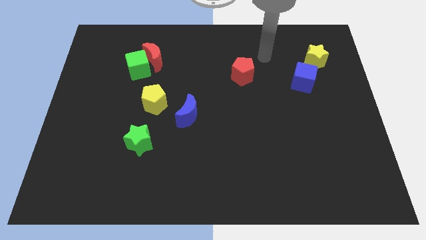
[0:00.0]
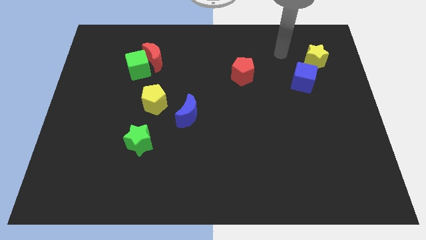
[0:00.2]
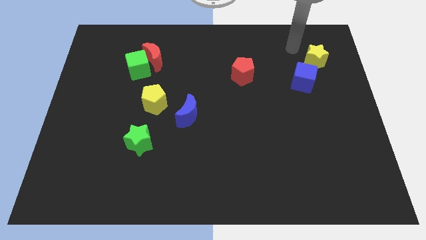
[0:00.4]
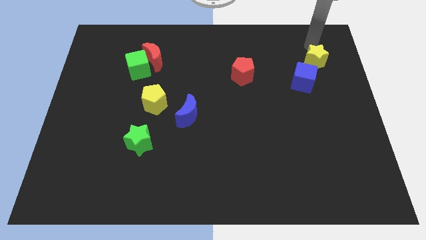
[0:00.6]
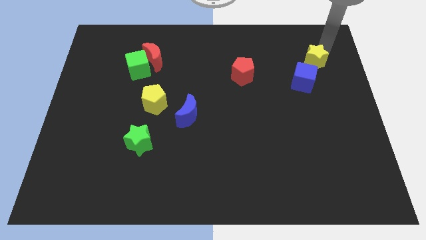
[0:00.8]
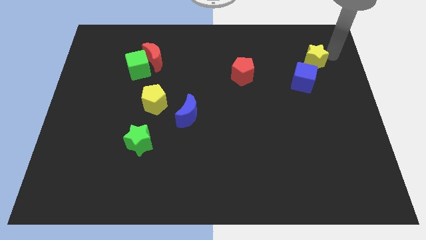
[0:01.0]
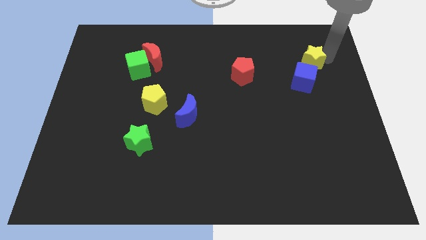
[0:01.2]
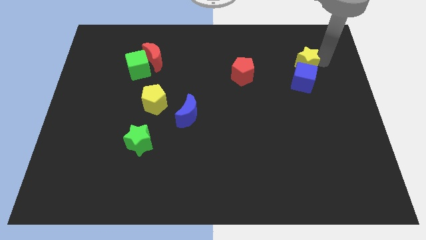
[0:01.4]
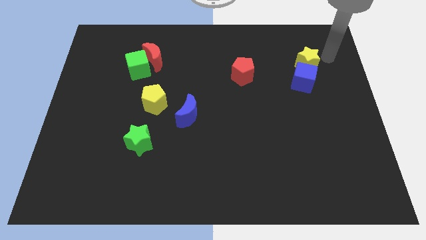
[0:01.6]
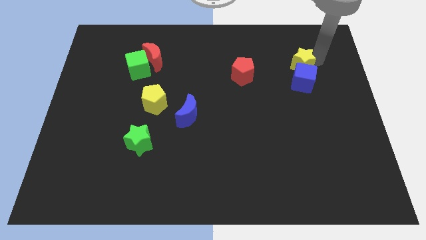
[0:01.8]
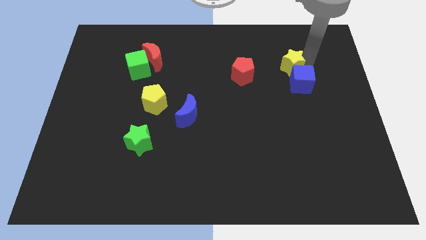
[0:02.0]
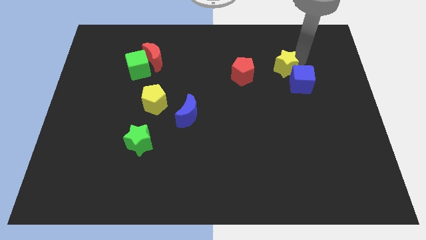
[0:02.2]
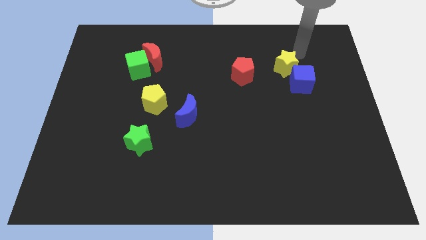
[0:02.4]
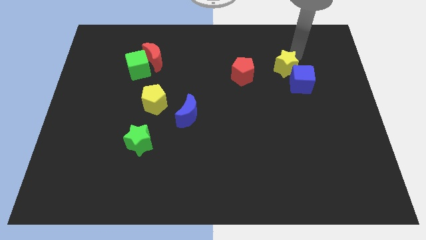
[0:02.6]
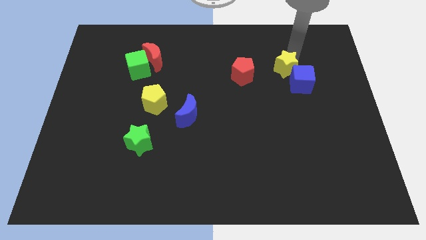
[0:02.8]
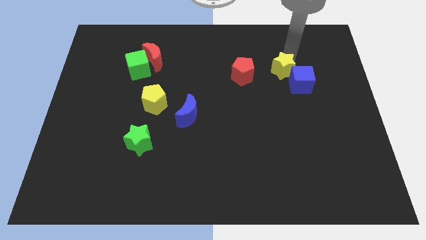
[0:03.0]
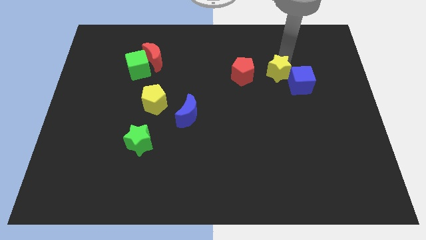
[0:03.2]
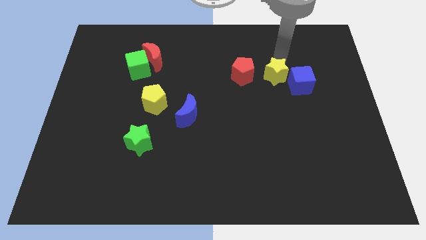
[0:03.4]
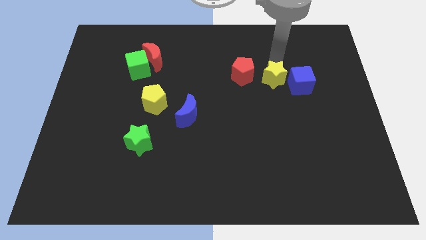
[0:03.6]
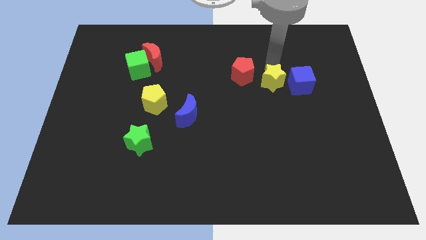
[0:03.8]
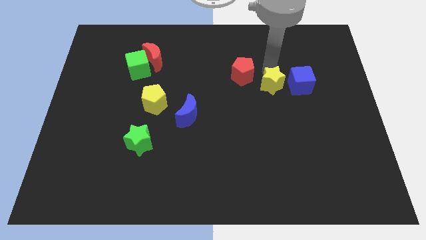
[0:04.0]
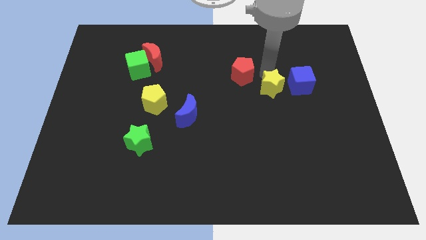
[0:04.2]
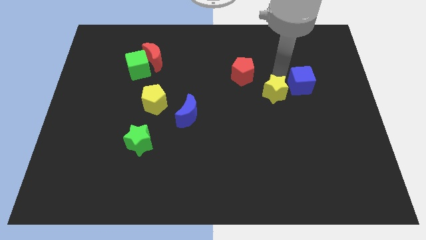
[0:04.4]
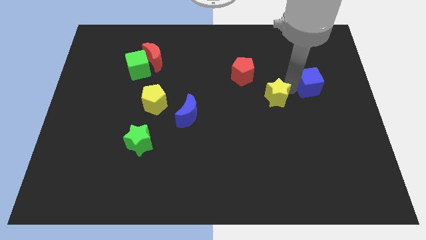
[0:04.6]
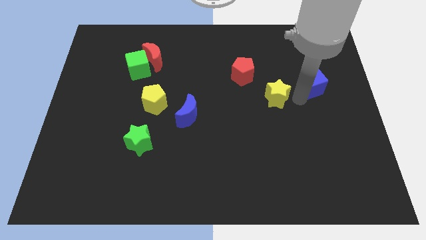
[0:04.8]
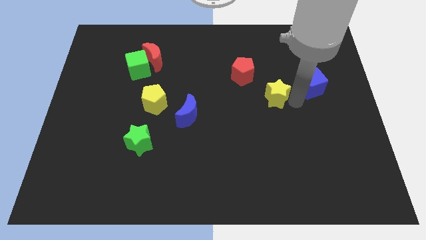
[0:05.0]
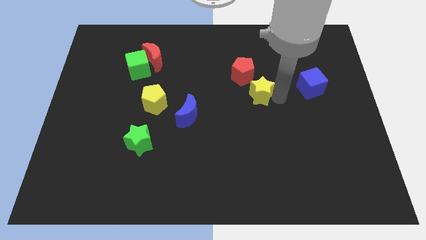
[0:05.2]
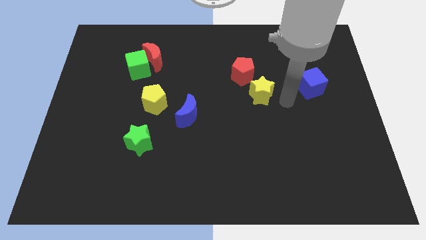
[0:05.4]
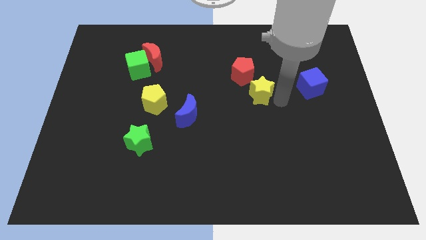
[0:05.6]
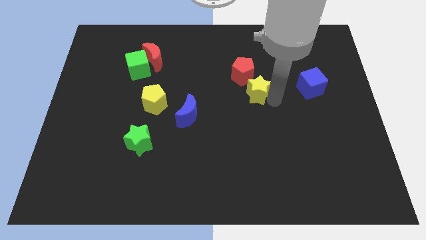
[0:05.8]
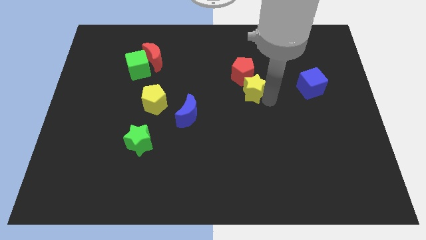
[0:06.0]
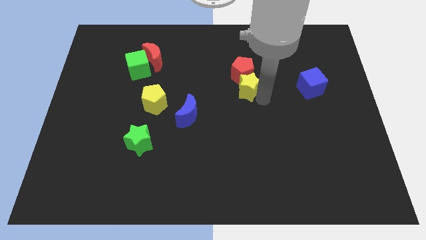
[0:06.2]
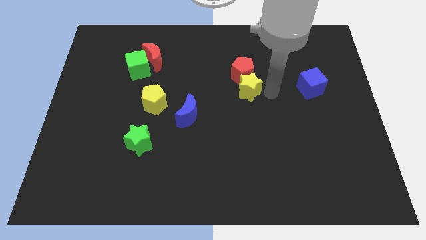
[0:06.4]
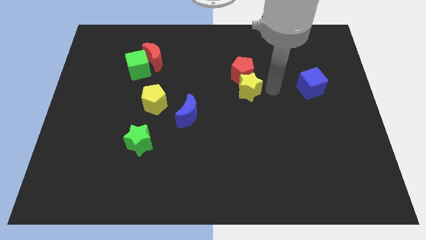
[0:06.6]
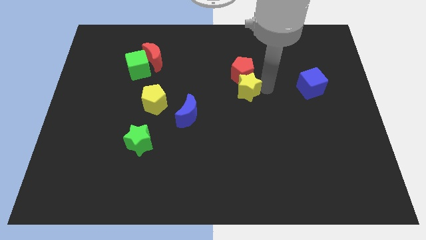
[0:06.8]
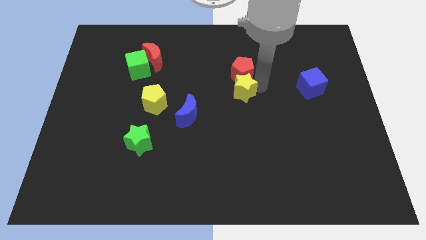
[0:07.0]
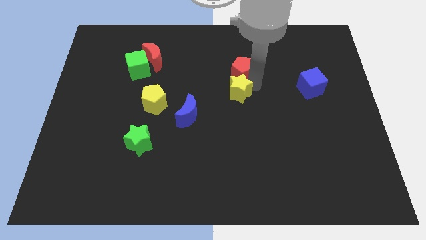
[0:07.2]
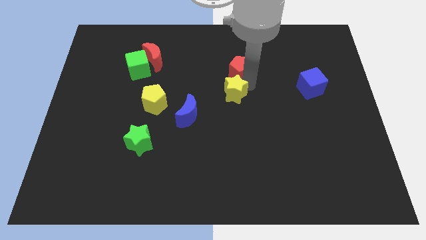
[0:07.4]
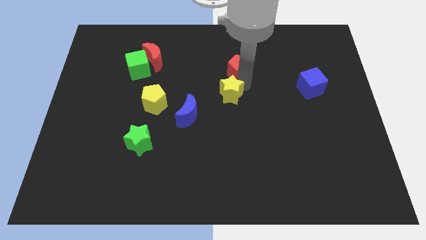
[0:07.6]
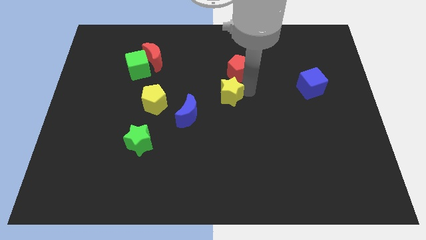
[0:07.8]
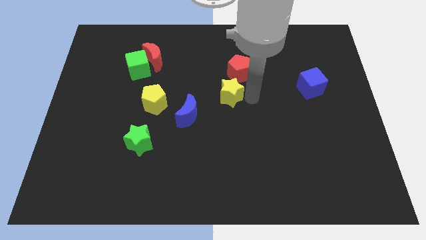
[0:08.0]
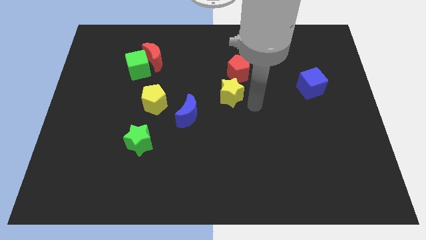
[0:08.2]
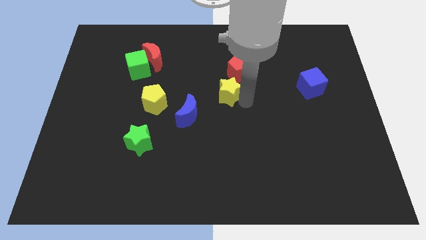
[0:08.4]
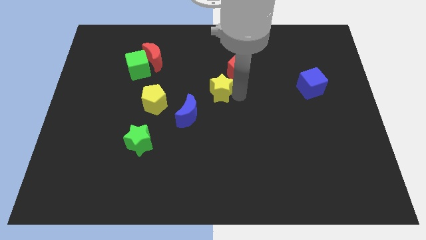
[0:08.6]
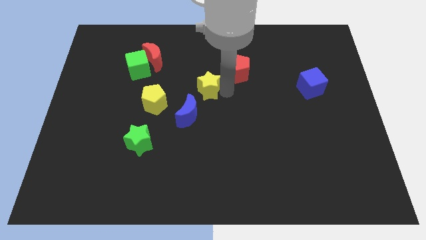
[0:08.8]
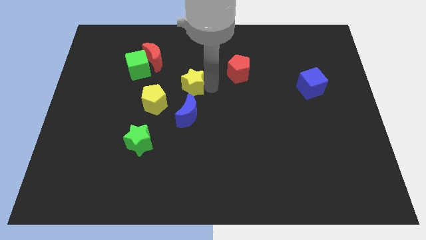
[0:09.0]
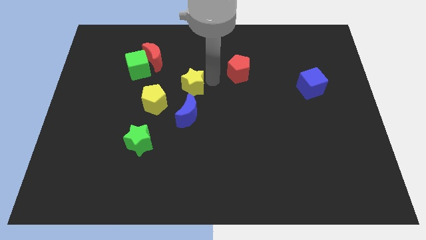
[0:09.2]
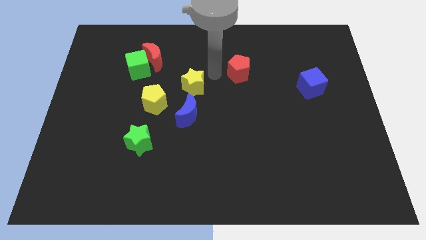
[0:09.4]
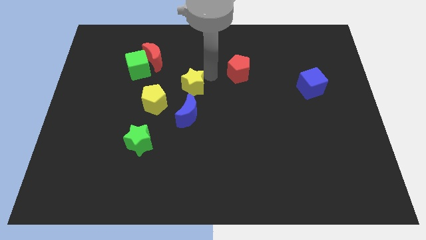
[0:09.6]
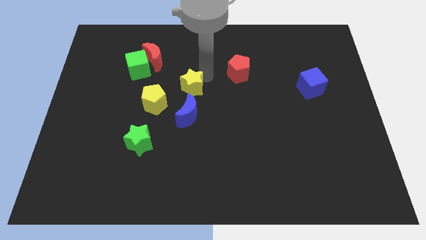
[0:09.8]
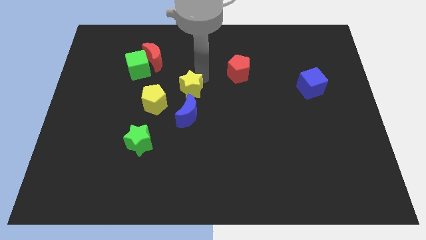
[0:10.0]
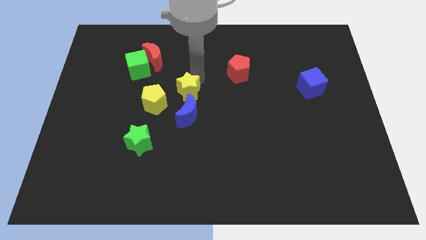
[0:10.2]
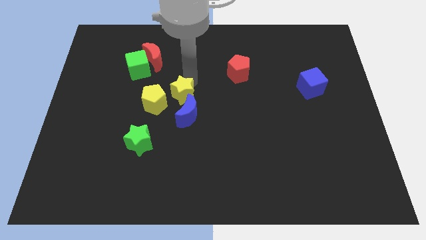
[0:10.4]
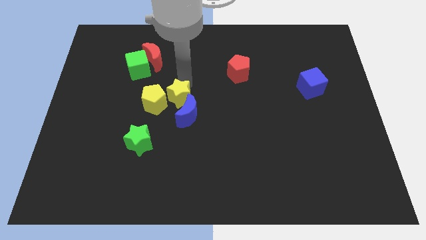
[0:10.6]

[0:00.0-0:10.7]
slide the yellow star towards the yellow pentagon

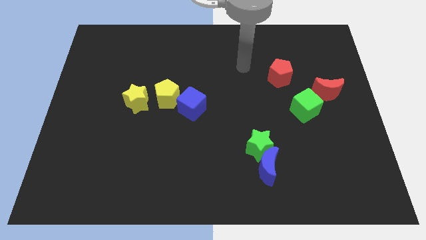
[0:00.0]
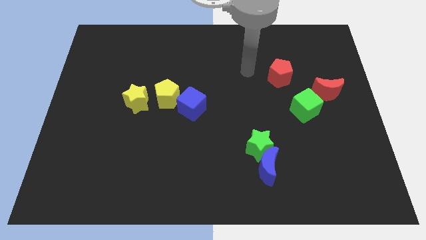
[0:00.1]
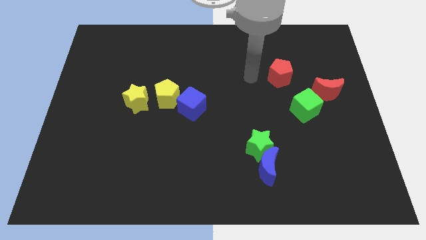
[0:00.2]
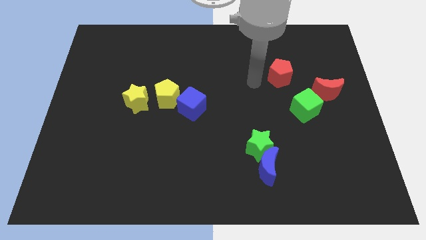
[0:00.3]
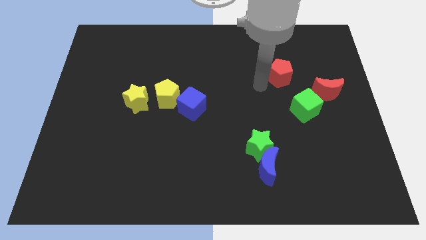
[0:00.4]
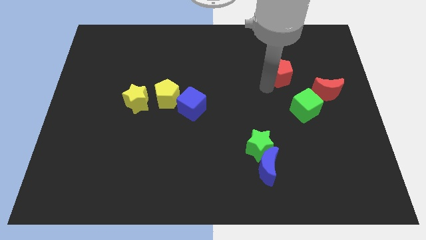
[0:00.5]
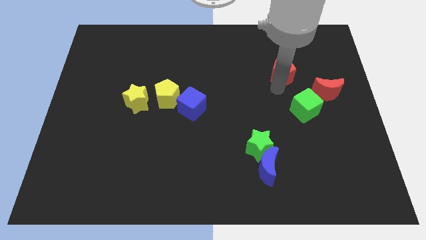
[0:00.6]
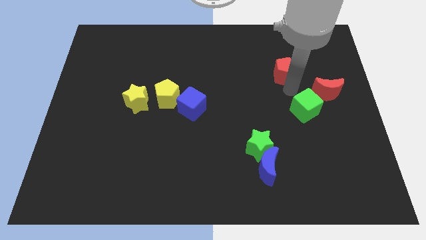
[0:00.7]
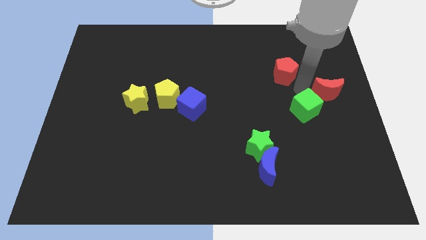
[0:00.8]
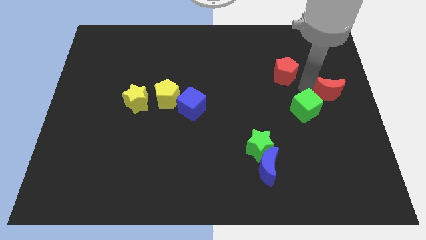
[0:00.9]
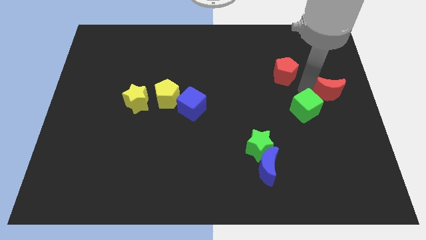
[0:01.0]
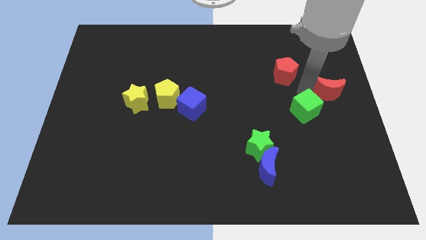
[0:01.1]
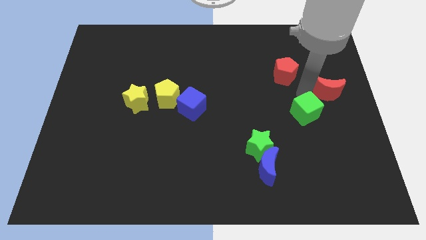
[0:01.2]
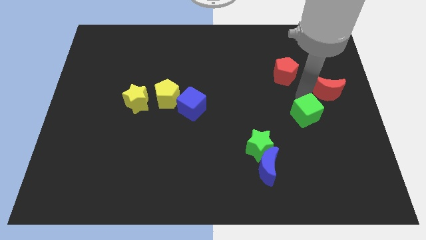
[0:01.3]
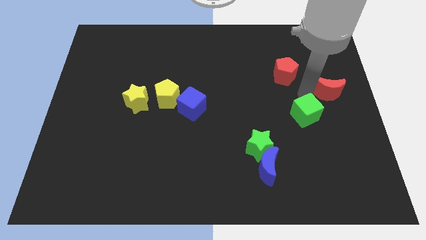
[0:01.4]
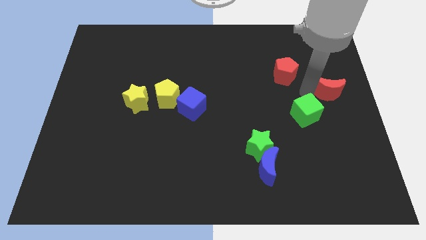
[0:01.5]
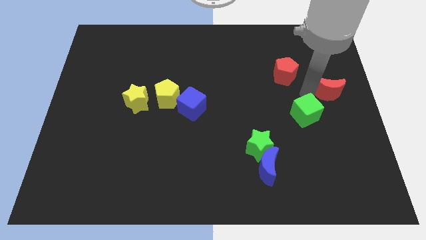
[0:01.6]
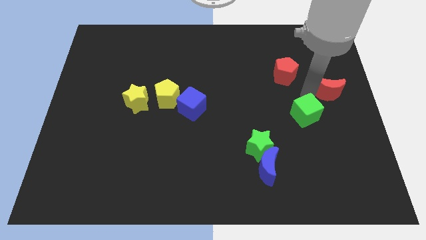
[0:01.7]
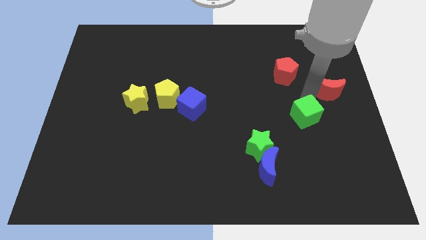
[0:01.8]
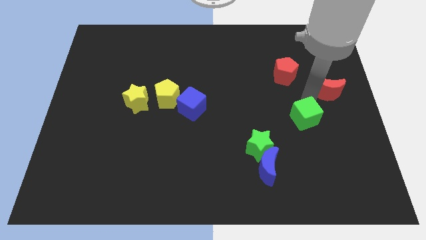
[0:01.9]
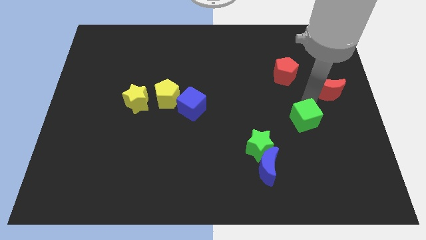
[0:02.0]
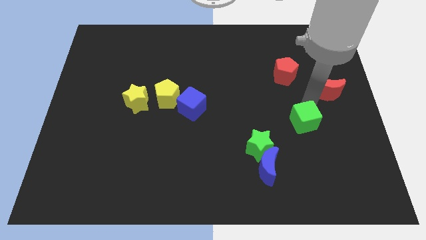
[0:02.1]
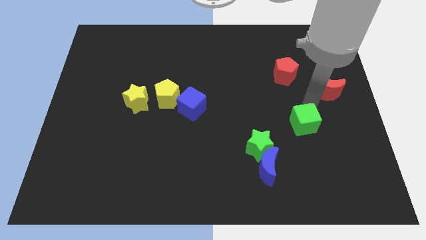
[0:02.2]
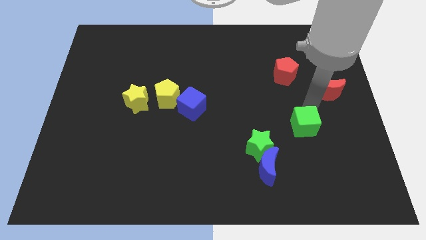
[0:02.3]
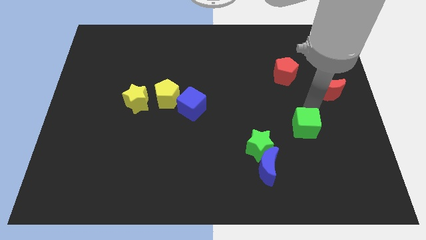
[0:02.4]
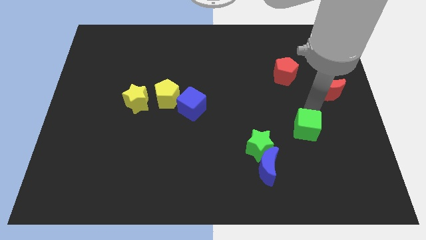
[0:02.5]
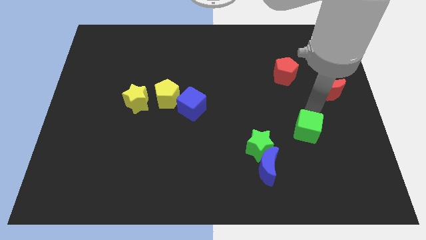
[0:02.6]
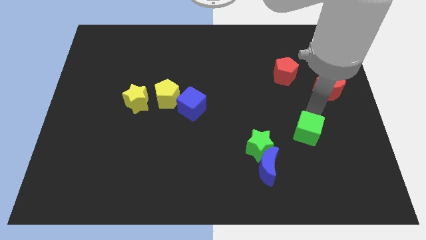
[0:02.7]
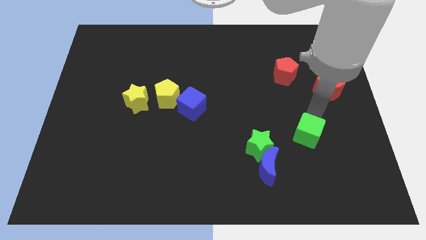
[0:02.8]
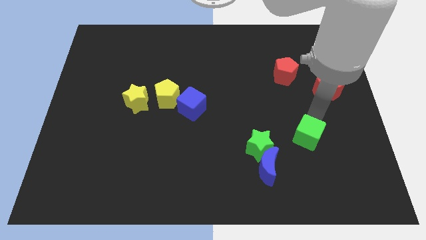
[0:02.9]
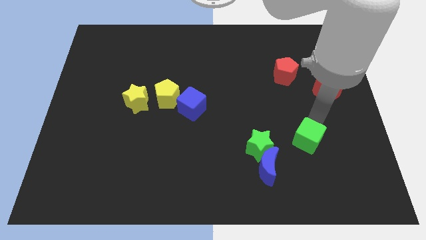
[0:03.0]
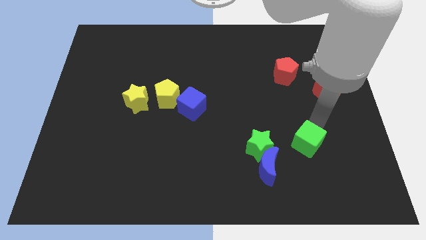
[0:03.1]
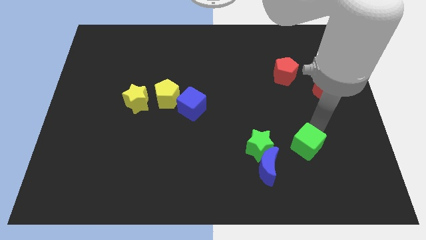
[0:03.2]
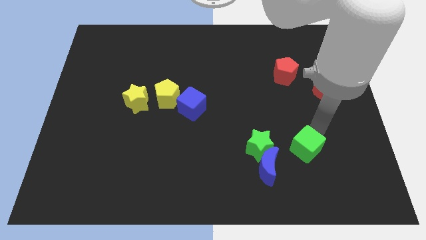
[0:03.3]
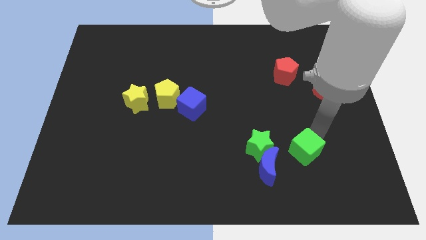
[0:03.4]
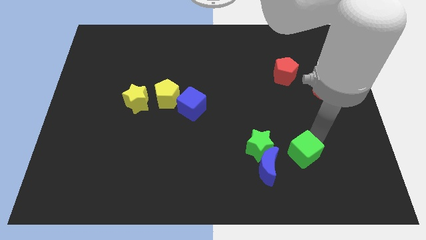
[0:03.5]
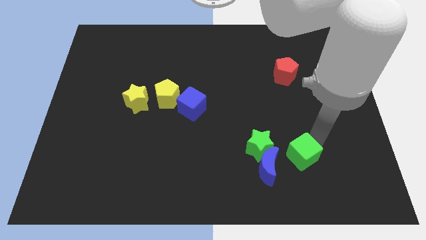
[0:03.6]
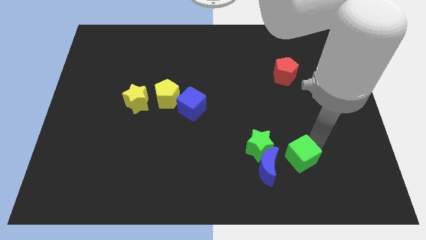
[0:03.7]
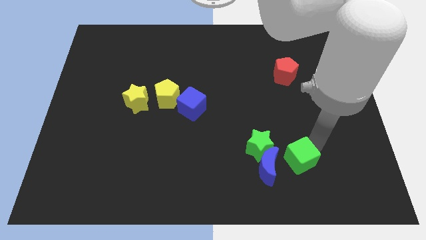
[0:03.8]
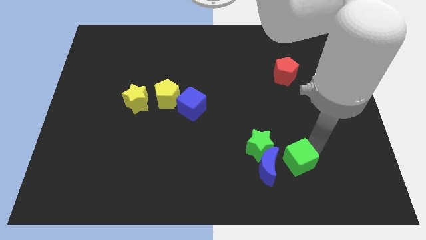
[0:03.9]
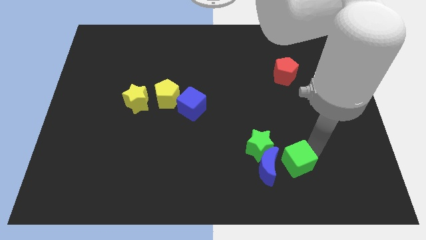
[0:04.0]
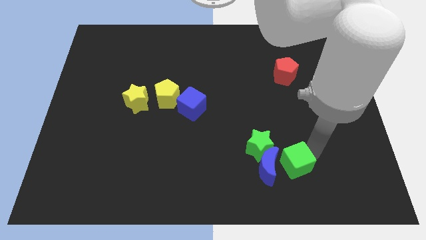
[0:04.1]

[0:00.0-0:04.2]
slide the green cube to the blue moon
